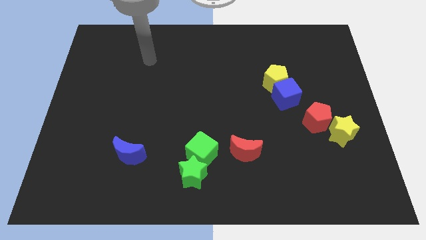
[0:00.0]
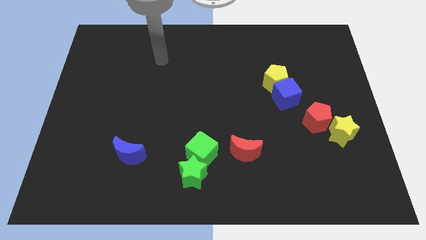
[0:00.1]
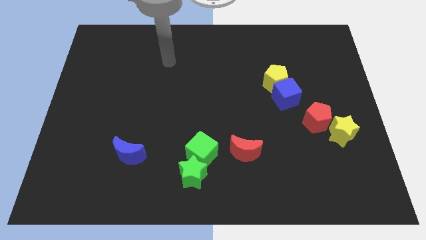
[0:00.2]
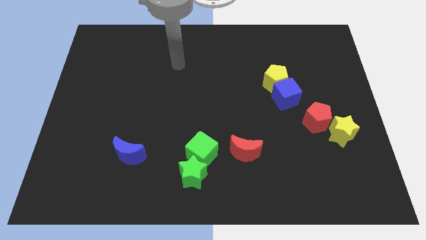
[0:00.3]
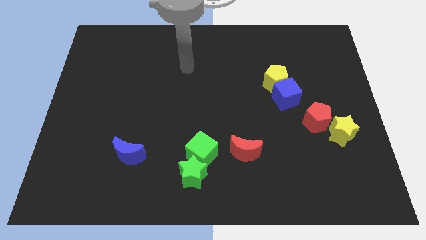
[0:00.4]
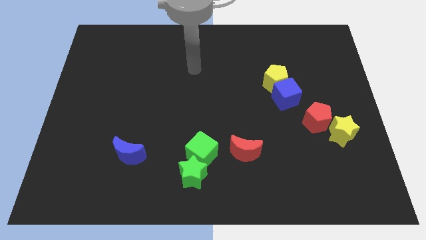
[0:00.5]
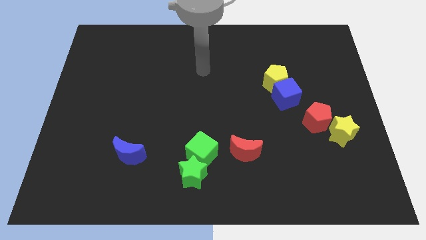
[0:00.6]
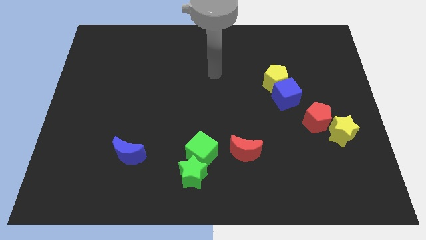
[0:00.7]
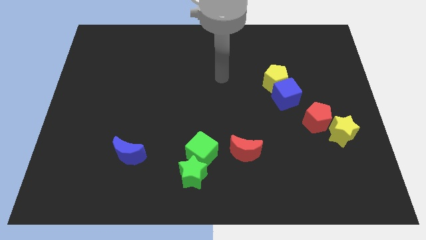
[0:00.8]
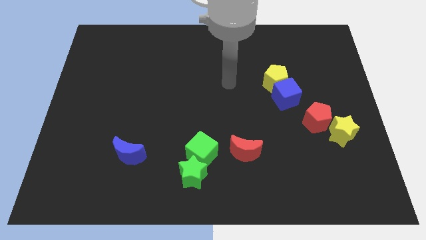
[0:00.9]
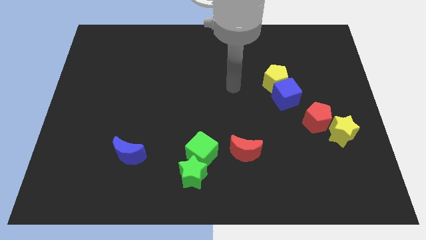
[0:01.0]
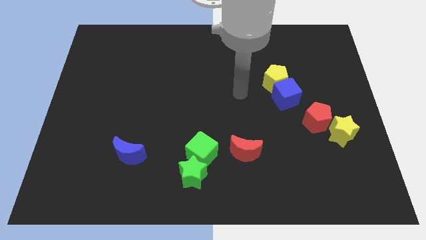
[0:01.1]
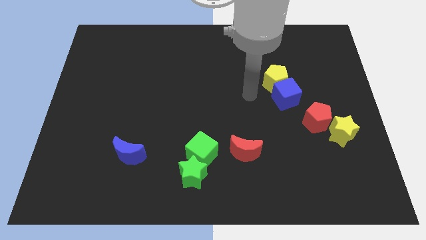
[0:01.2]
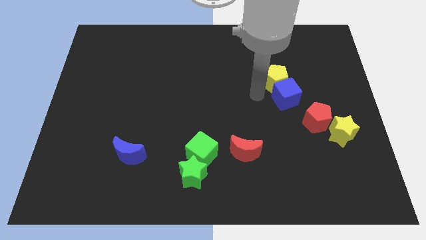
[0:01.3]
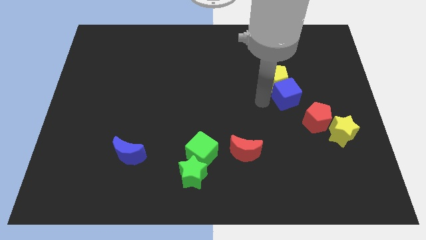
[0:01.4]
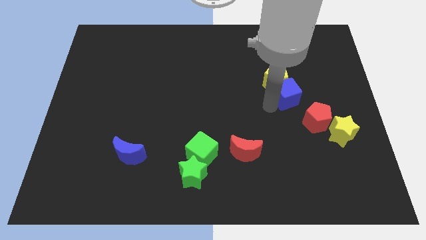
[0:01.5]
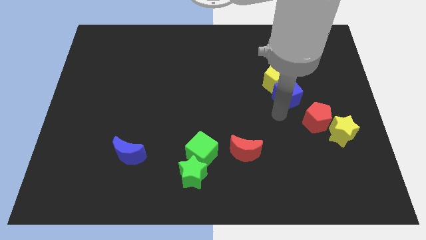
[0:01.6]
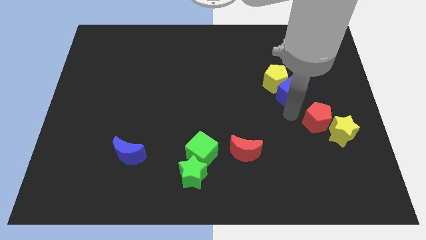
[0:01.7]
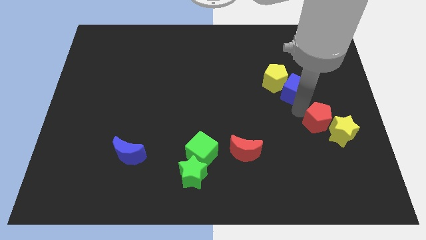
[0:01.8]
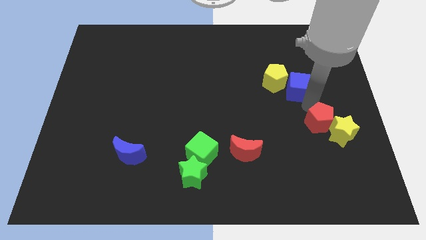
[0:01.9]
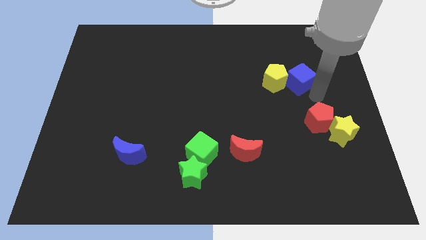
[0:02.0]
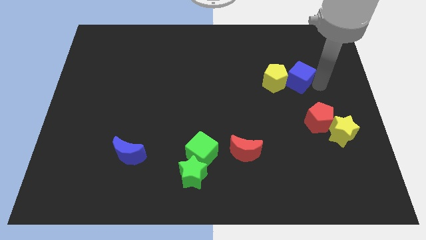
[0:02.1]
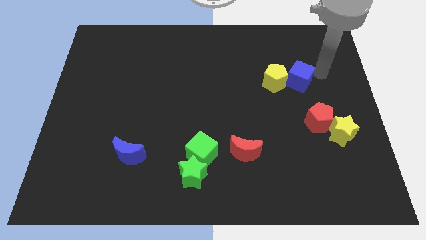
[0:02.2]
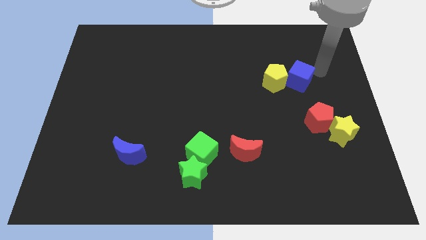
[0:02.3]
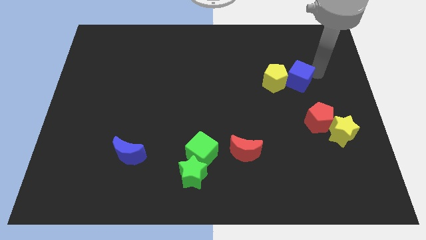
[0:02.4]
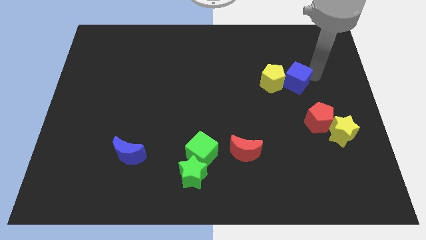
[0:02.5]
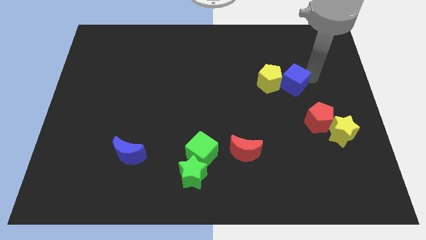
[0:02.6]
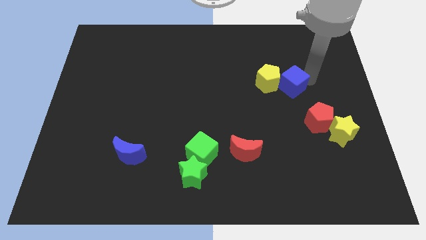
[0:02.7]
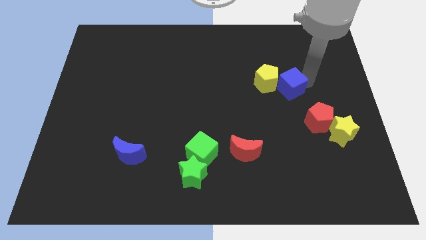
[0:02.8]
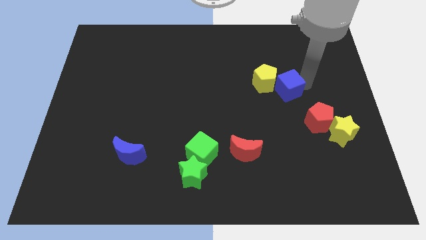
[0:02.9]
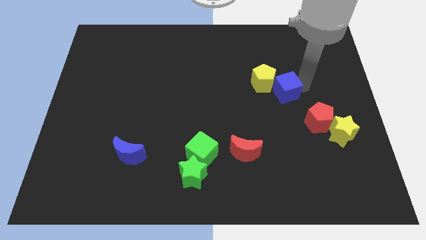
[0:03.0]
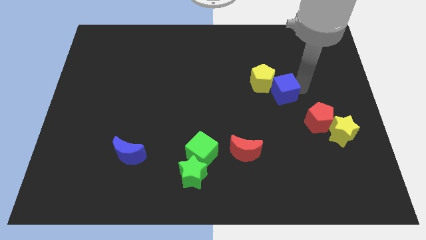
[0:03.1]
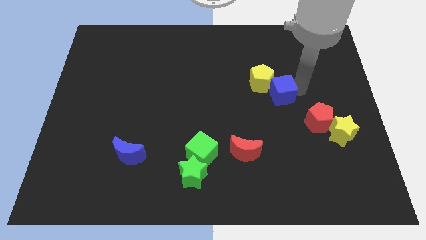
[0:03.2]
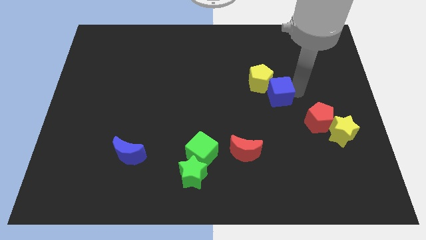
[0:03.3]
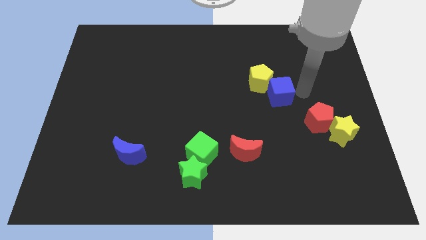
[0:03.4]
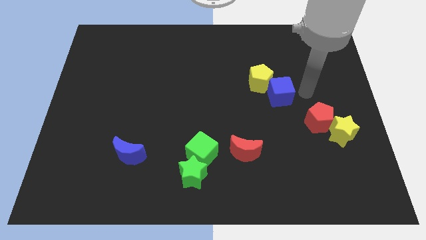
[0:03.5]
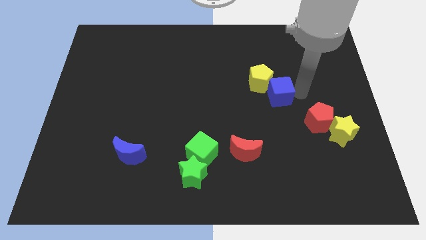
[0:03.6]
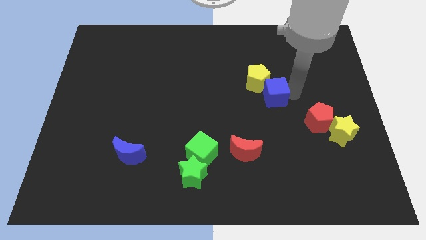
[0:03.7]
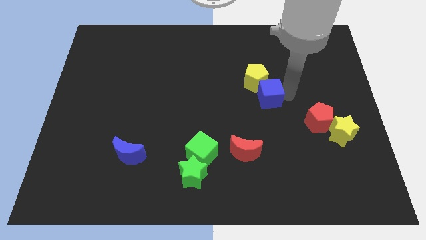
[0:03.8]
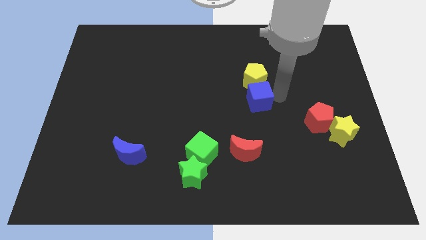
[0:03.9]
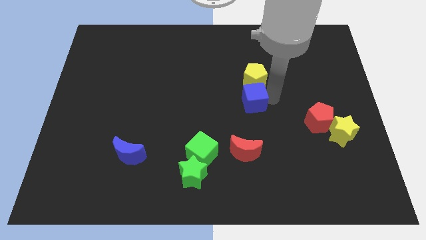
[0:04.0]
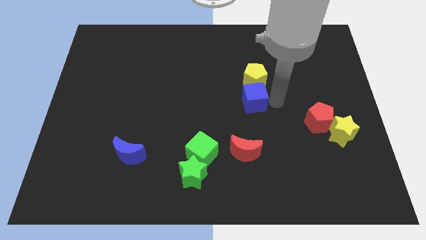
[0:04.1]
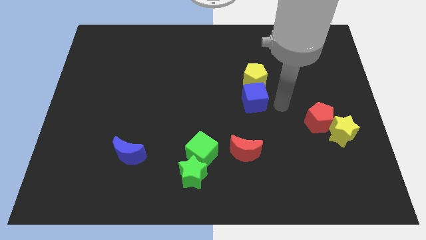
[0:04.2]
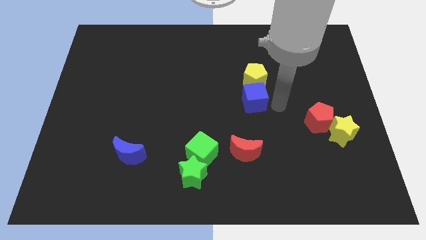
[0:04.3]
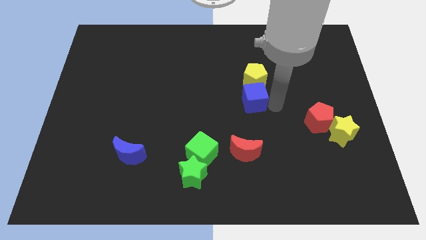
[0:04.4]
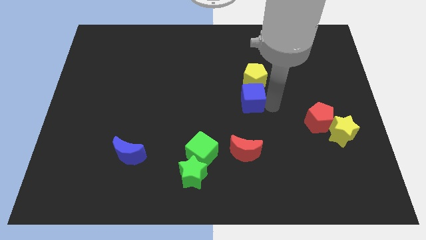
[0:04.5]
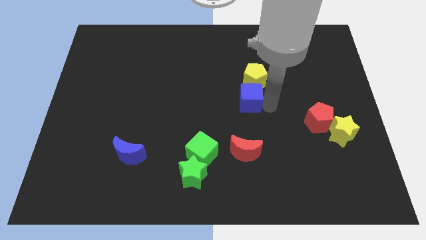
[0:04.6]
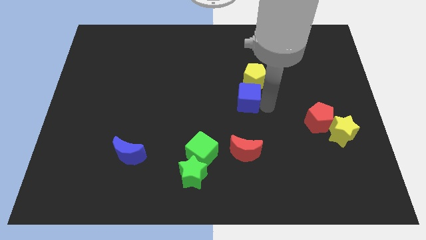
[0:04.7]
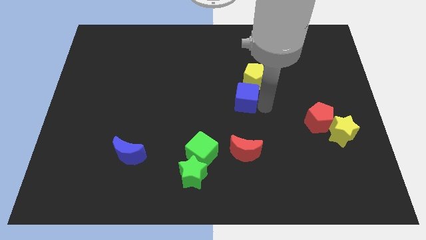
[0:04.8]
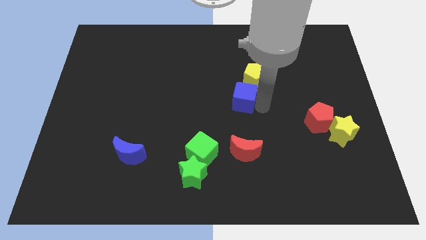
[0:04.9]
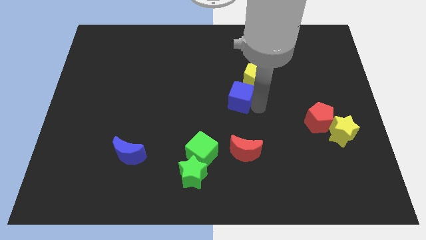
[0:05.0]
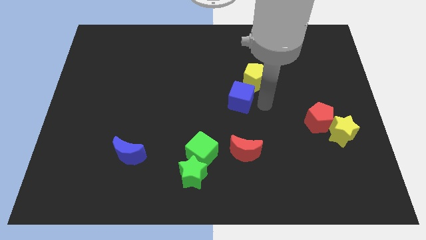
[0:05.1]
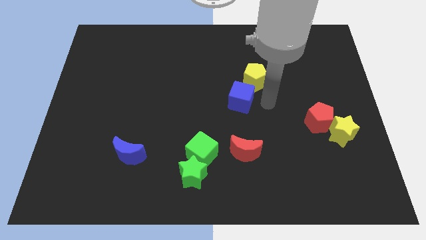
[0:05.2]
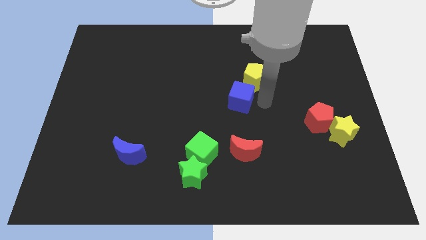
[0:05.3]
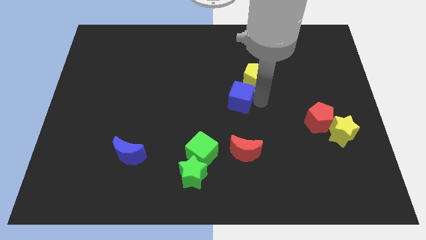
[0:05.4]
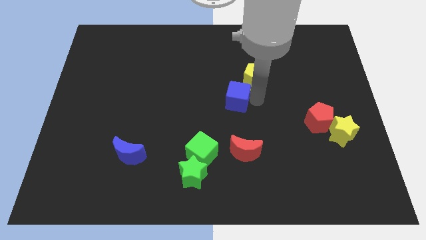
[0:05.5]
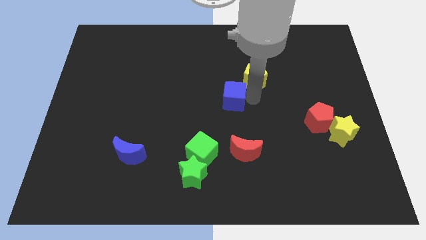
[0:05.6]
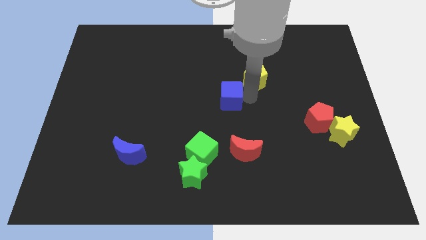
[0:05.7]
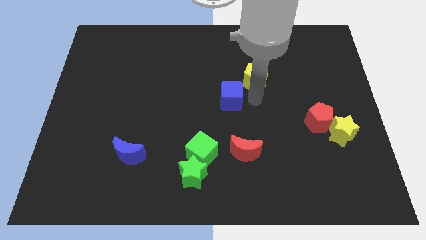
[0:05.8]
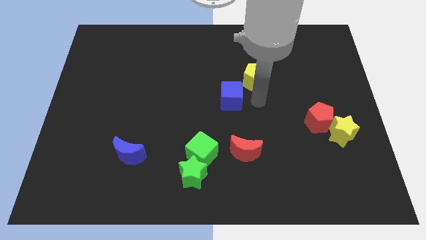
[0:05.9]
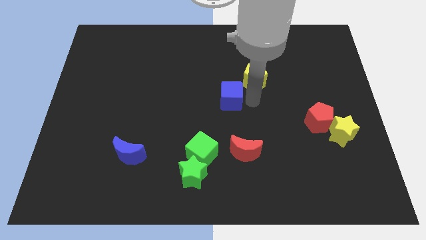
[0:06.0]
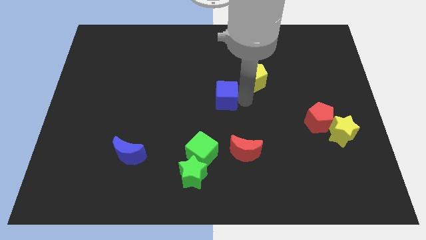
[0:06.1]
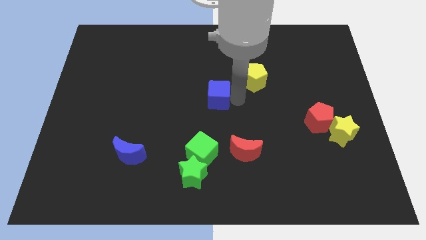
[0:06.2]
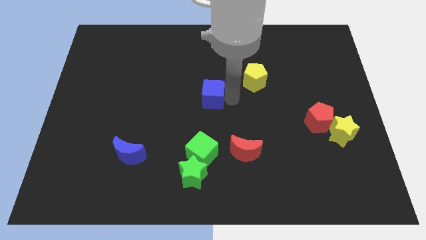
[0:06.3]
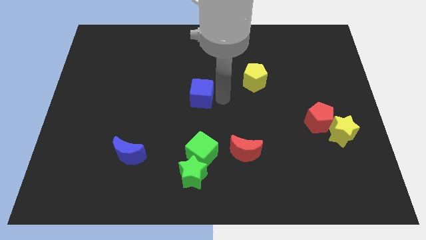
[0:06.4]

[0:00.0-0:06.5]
push the blue cube left

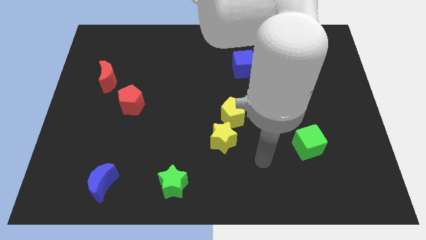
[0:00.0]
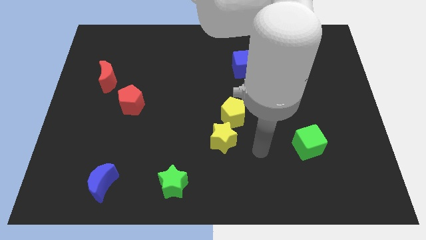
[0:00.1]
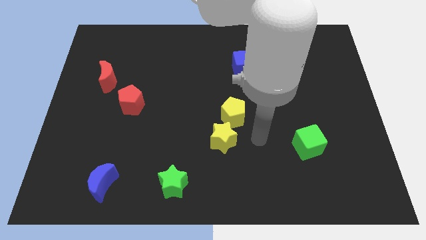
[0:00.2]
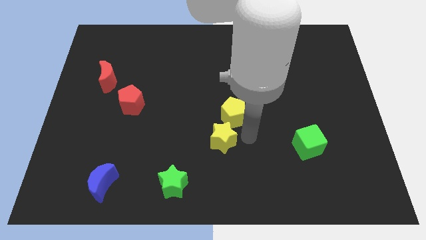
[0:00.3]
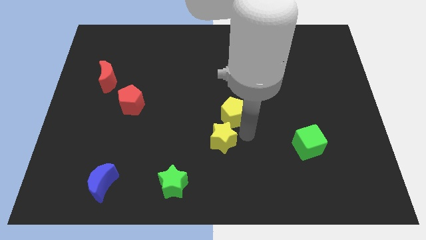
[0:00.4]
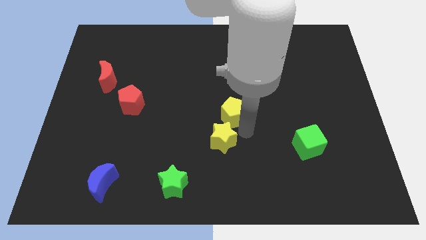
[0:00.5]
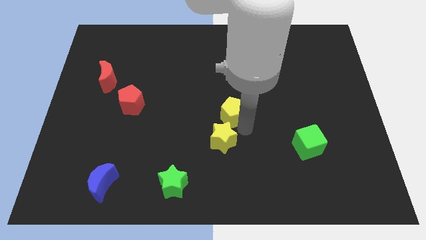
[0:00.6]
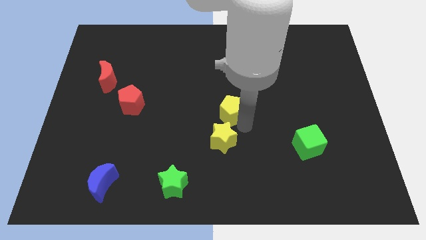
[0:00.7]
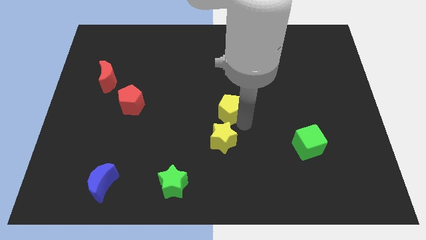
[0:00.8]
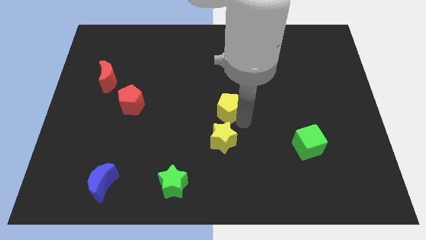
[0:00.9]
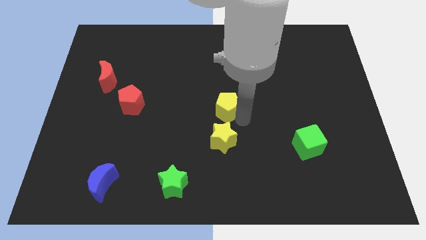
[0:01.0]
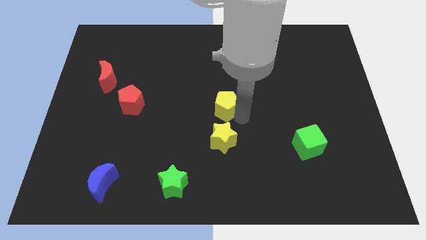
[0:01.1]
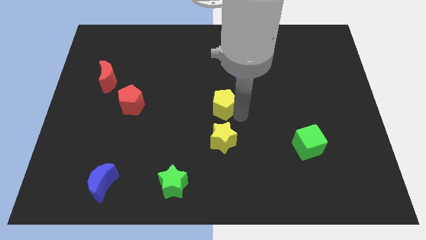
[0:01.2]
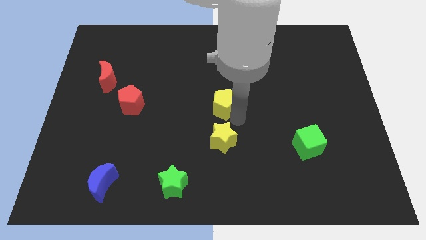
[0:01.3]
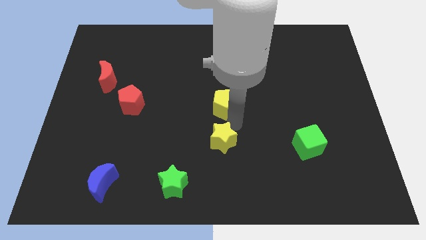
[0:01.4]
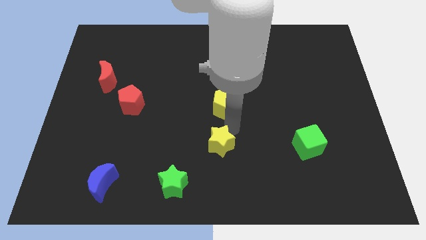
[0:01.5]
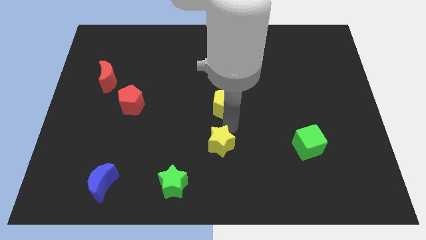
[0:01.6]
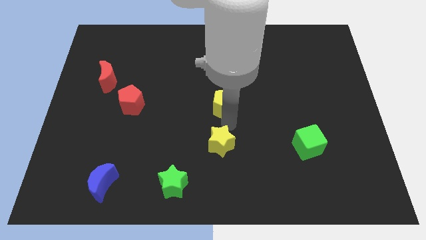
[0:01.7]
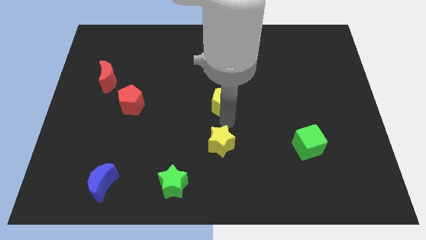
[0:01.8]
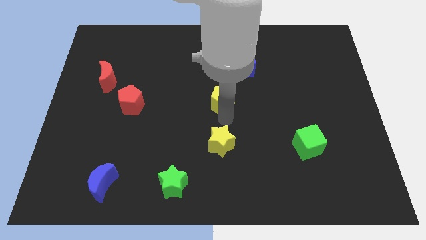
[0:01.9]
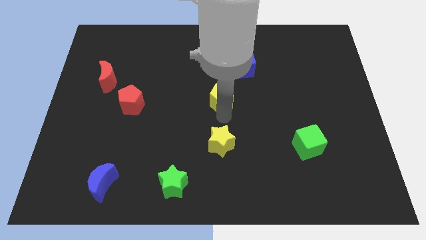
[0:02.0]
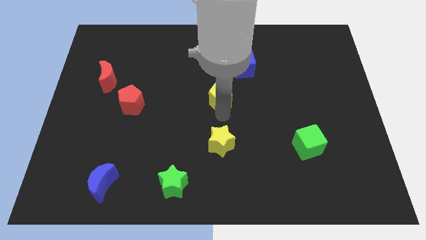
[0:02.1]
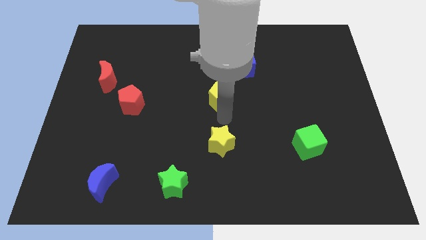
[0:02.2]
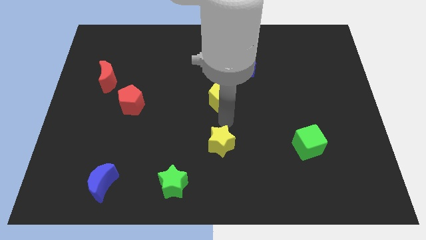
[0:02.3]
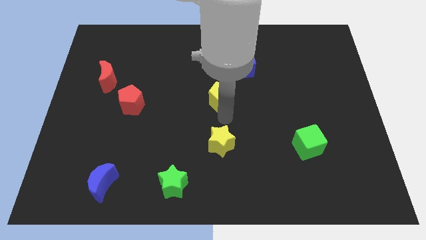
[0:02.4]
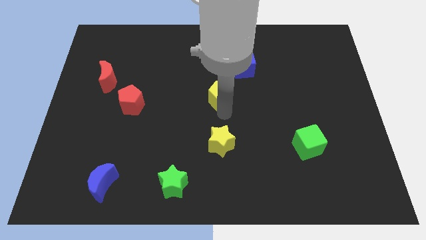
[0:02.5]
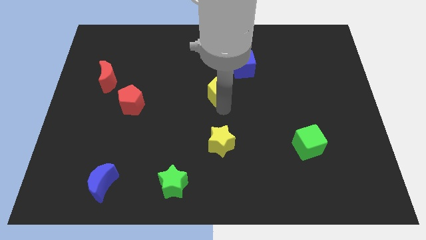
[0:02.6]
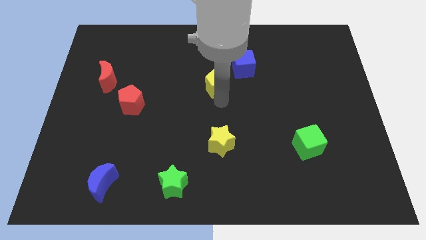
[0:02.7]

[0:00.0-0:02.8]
move the yellow pentagon slightly up
